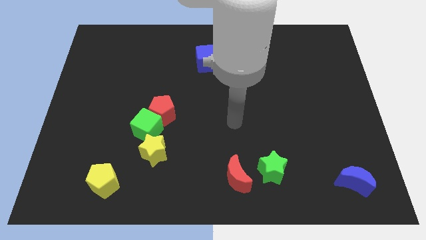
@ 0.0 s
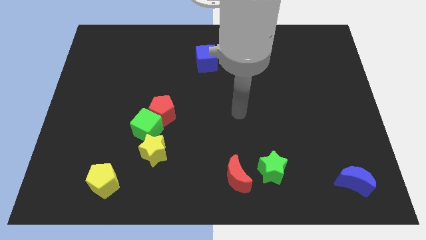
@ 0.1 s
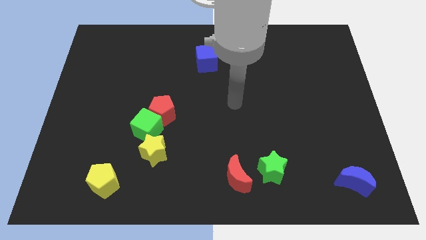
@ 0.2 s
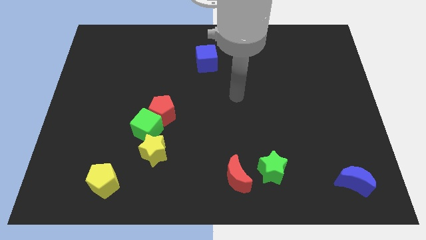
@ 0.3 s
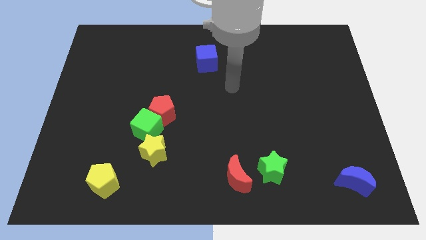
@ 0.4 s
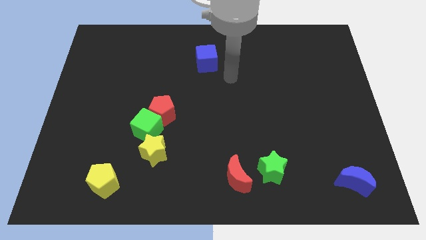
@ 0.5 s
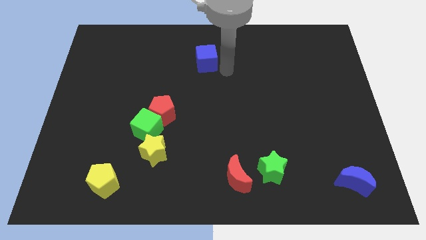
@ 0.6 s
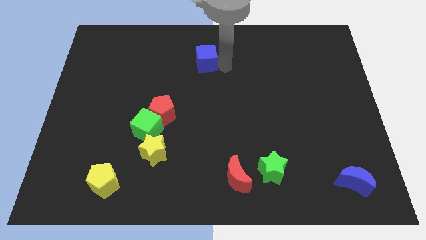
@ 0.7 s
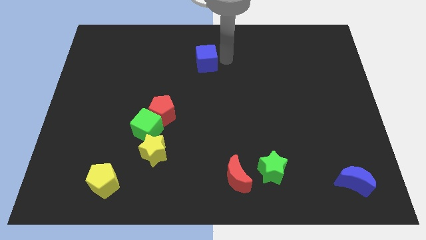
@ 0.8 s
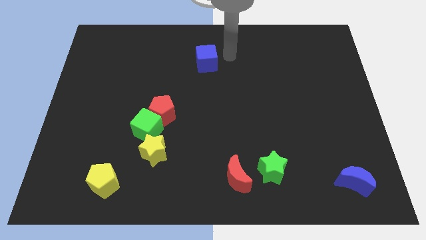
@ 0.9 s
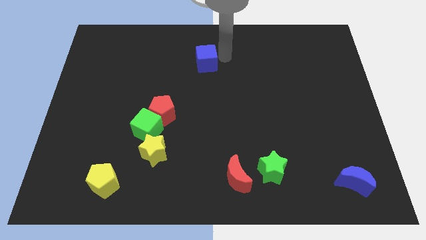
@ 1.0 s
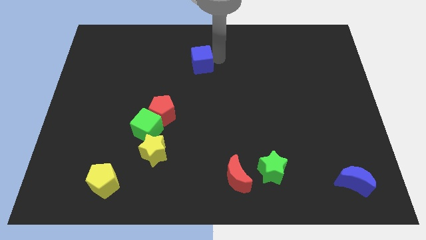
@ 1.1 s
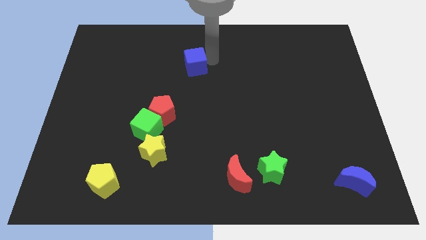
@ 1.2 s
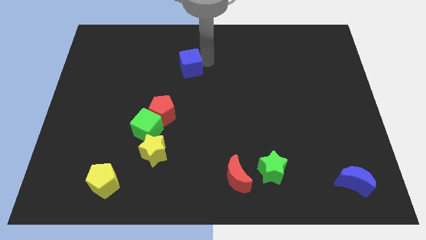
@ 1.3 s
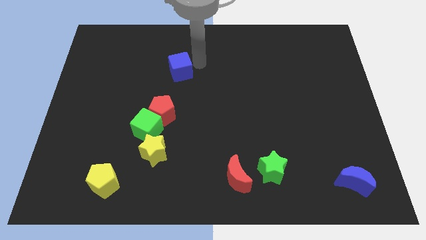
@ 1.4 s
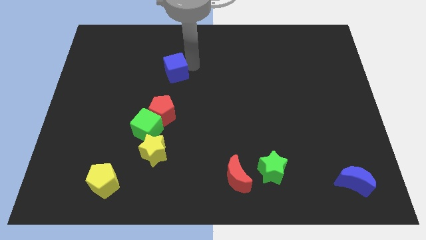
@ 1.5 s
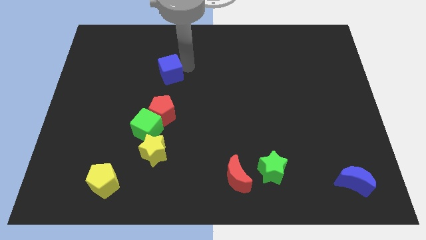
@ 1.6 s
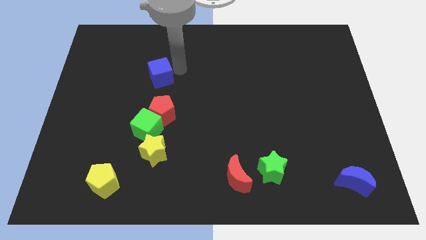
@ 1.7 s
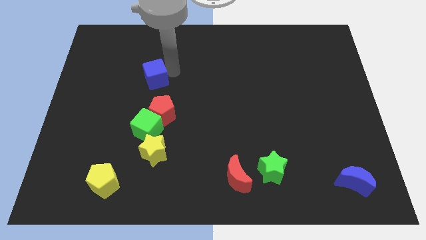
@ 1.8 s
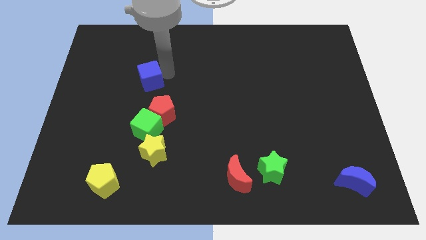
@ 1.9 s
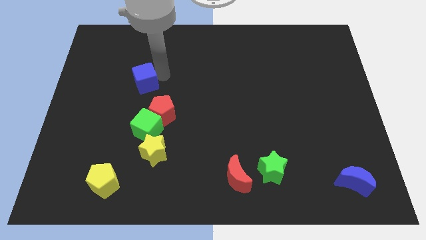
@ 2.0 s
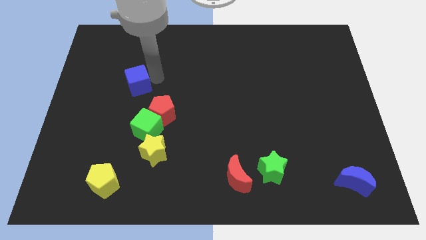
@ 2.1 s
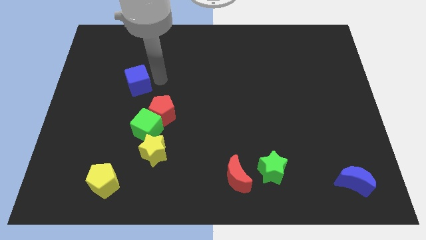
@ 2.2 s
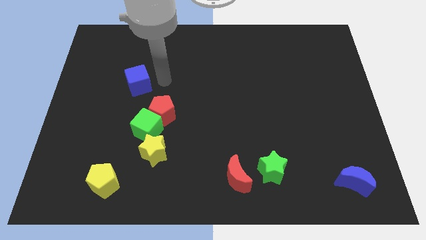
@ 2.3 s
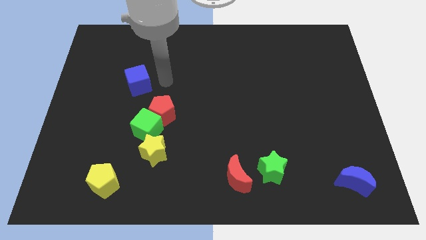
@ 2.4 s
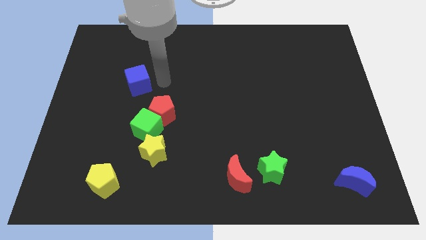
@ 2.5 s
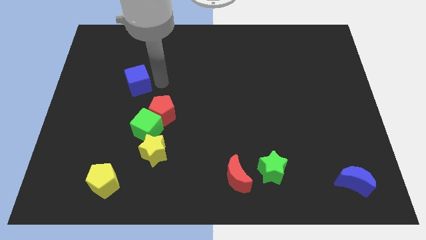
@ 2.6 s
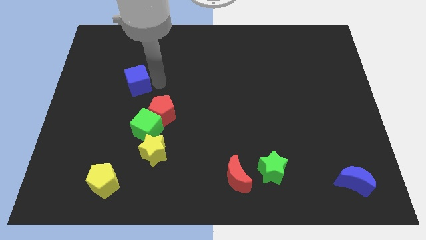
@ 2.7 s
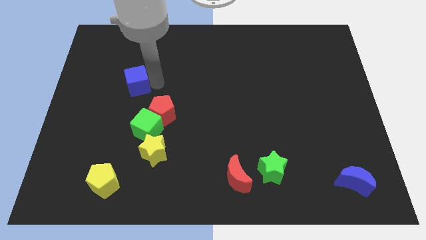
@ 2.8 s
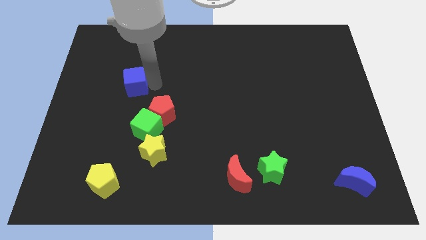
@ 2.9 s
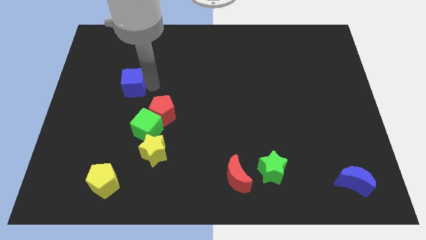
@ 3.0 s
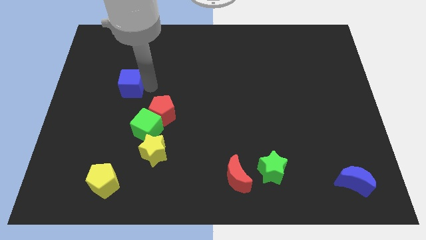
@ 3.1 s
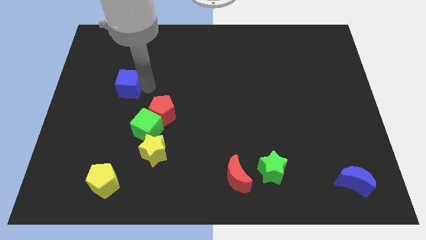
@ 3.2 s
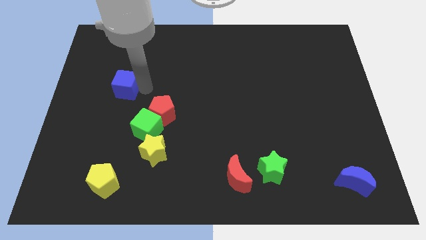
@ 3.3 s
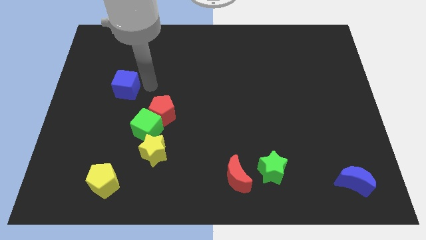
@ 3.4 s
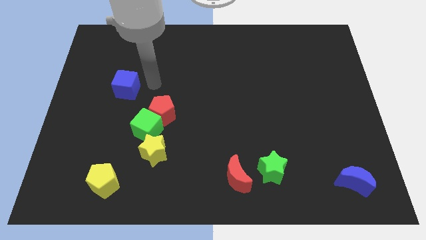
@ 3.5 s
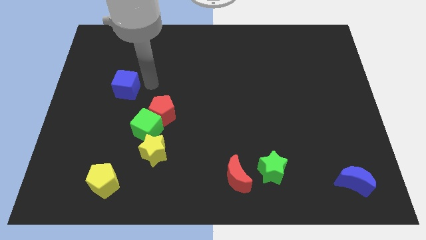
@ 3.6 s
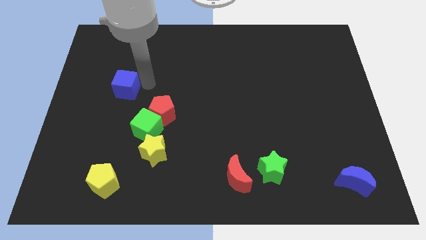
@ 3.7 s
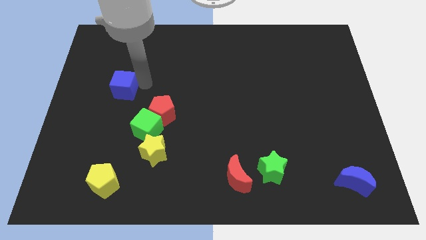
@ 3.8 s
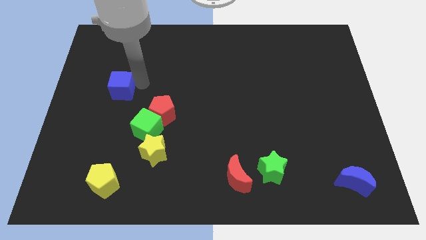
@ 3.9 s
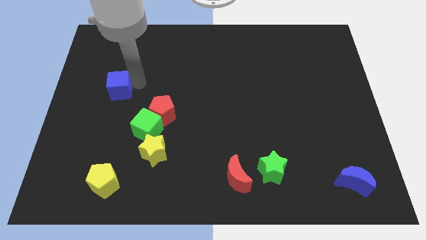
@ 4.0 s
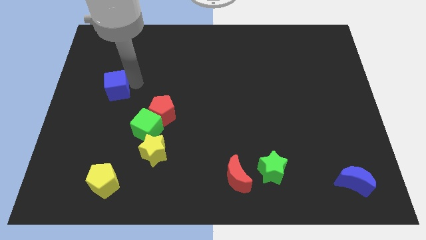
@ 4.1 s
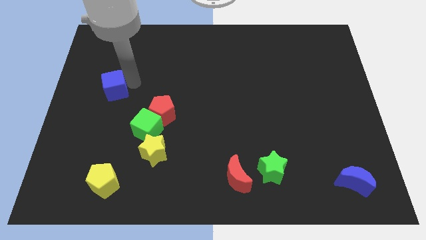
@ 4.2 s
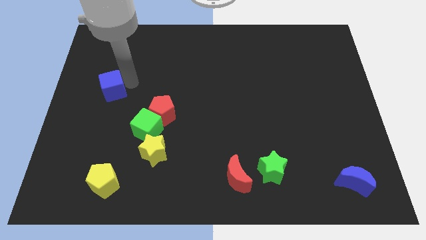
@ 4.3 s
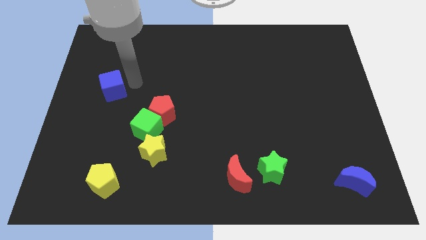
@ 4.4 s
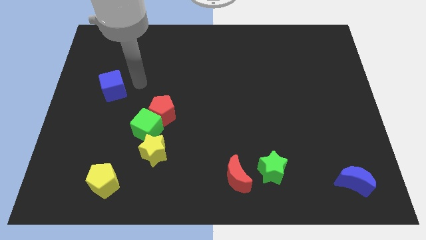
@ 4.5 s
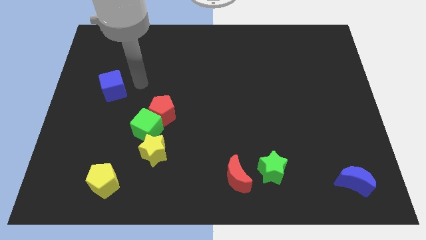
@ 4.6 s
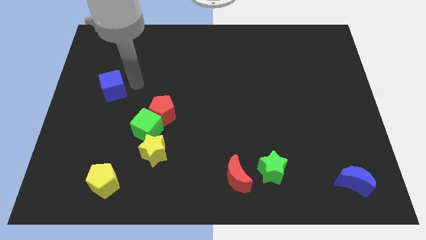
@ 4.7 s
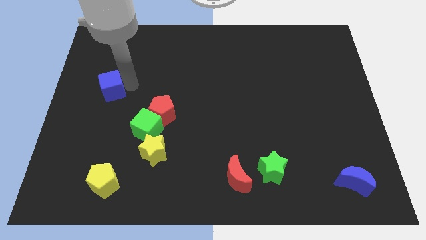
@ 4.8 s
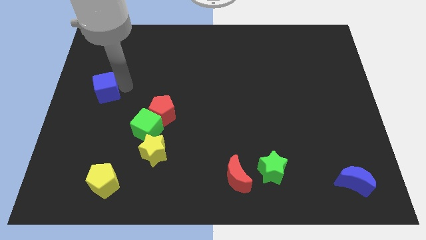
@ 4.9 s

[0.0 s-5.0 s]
put the blue cube to the center left
